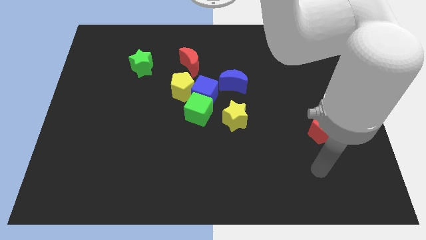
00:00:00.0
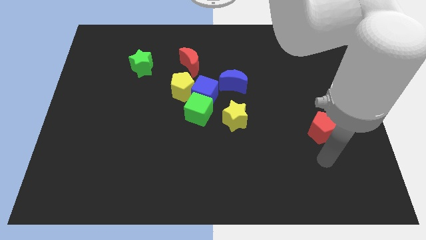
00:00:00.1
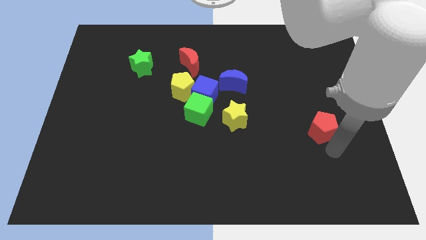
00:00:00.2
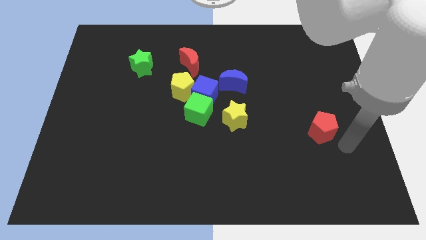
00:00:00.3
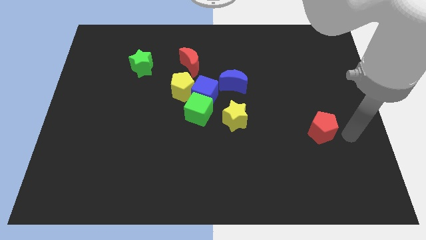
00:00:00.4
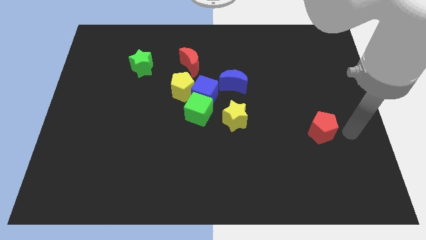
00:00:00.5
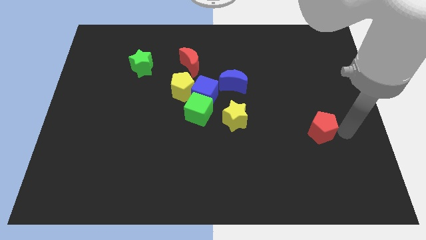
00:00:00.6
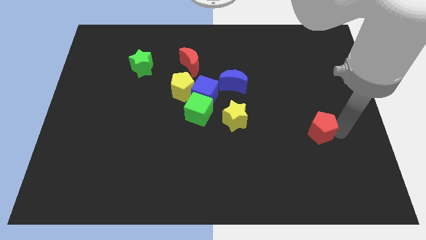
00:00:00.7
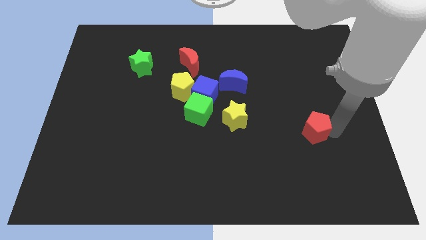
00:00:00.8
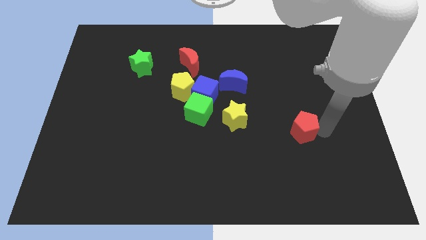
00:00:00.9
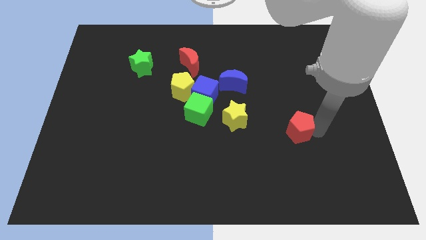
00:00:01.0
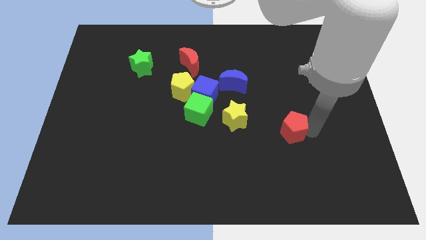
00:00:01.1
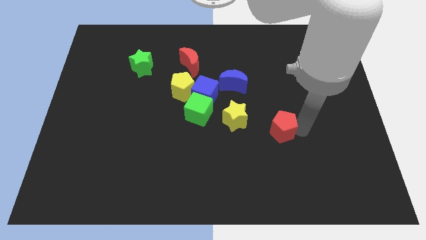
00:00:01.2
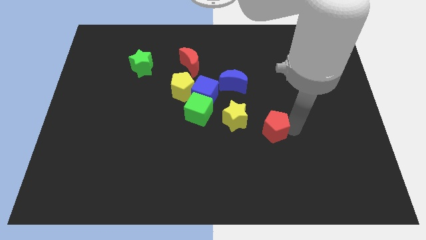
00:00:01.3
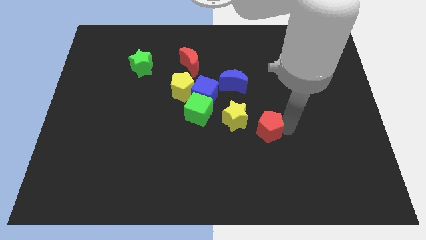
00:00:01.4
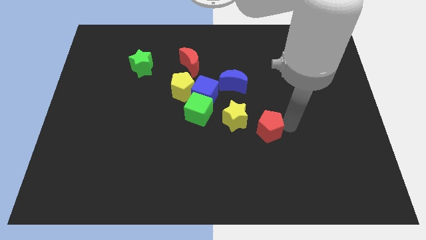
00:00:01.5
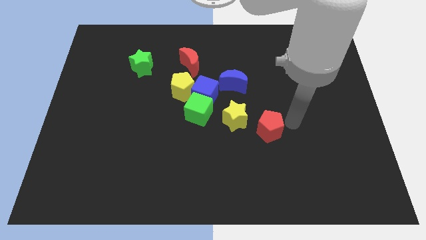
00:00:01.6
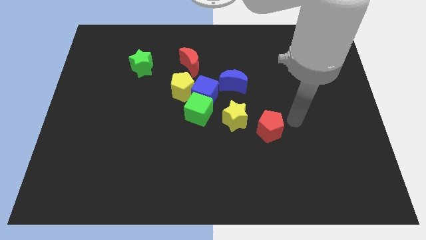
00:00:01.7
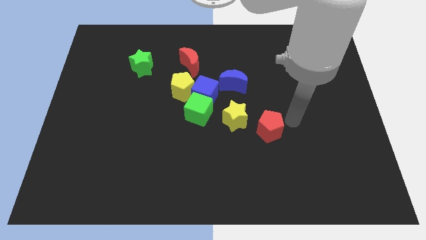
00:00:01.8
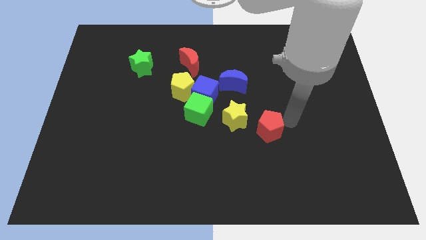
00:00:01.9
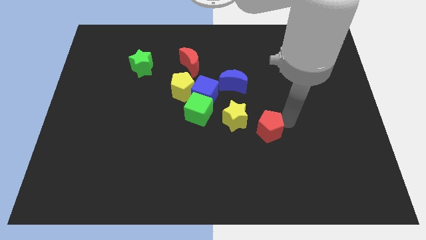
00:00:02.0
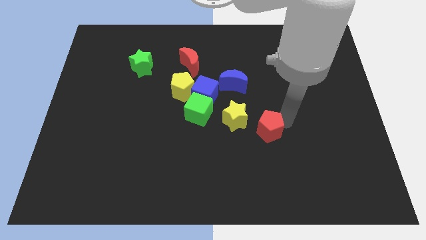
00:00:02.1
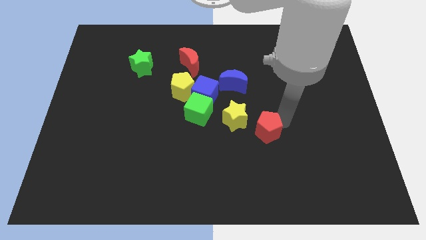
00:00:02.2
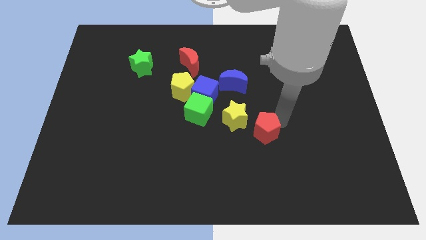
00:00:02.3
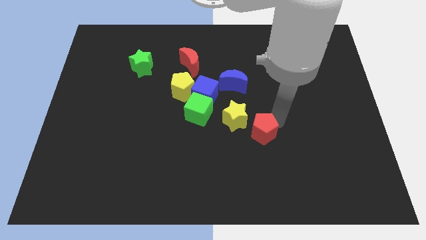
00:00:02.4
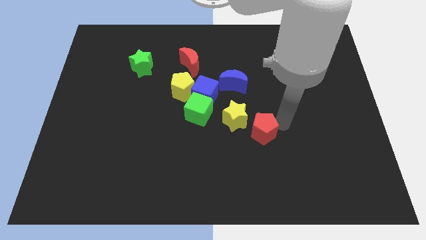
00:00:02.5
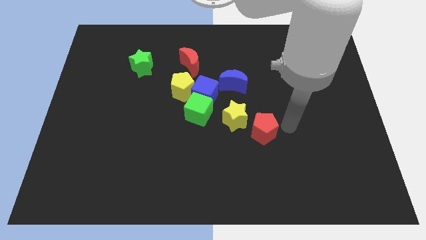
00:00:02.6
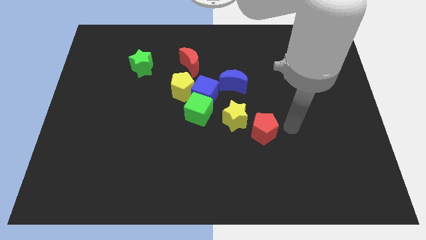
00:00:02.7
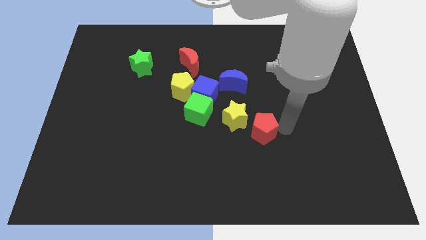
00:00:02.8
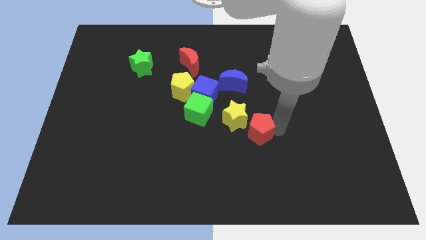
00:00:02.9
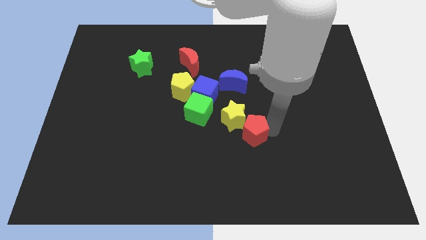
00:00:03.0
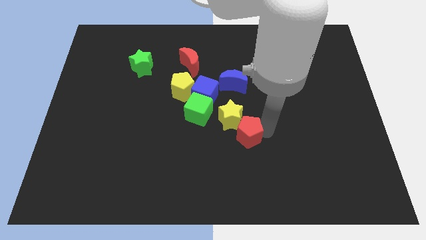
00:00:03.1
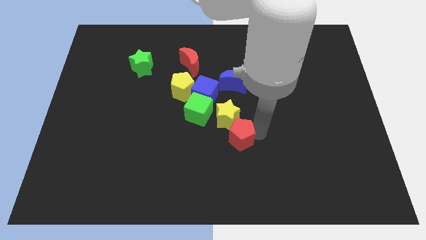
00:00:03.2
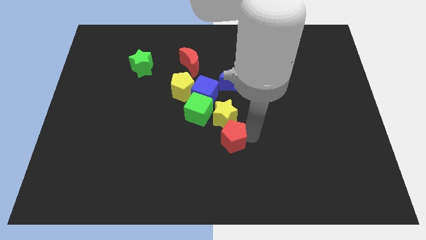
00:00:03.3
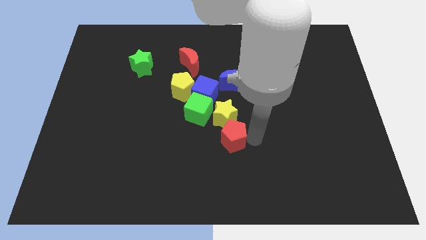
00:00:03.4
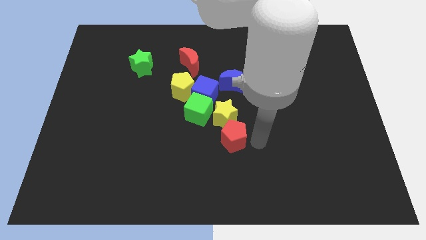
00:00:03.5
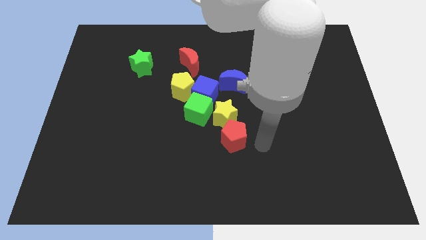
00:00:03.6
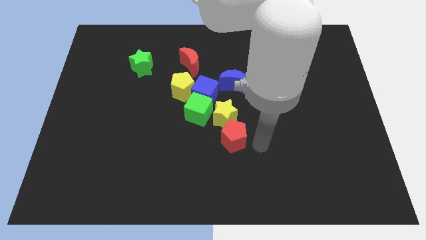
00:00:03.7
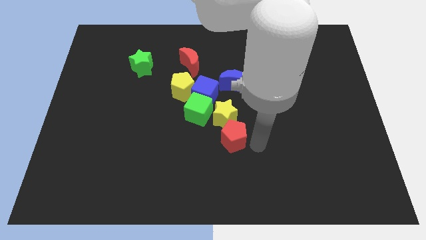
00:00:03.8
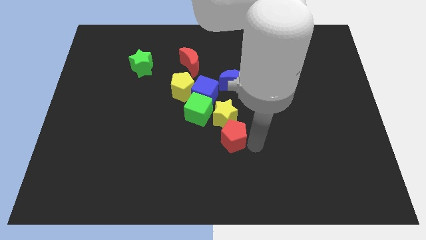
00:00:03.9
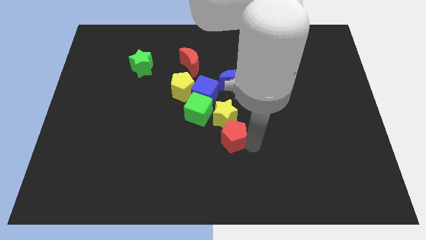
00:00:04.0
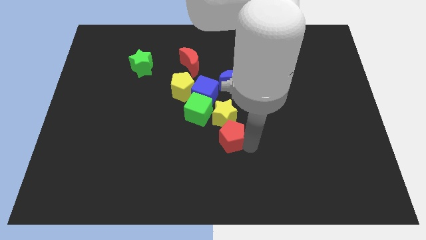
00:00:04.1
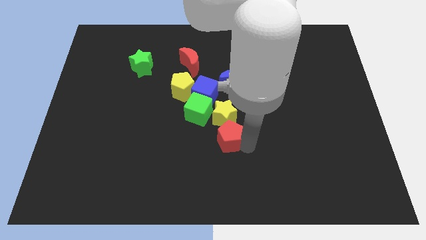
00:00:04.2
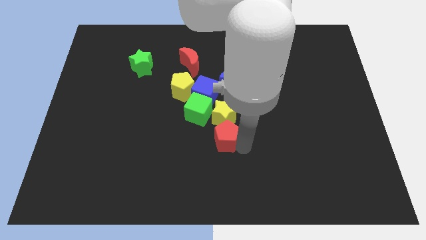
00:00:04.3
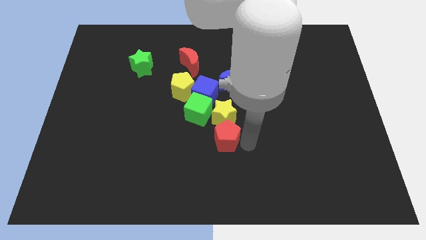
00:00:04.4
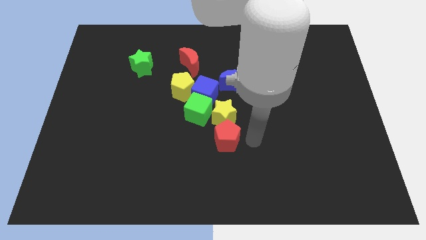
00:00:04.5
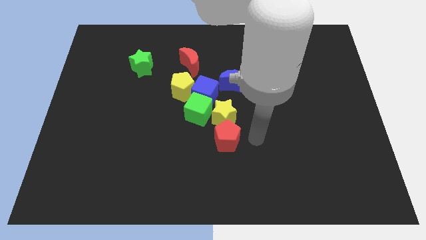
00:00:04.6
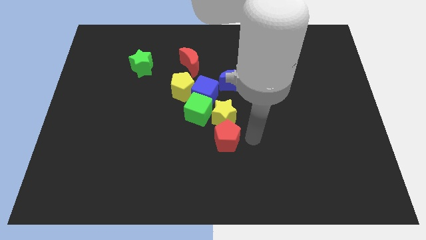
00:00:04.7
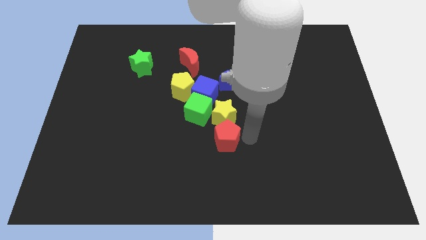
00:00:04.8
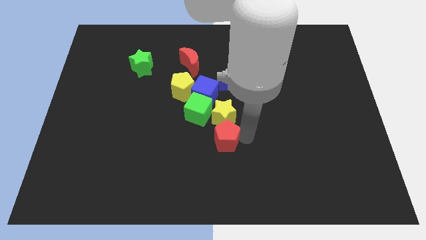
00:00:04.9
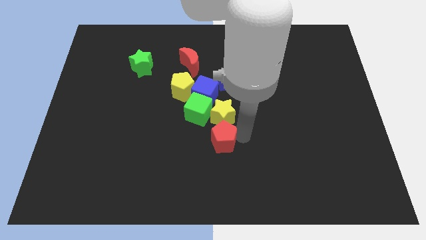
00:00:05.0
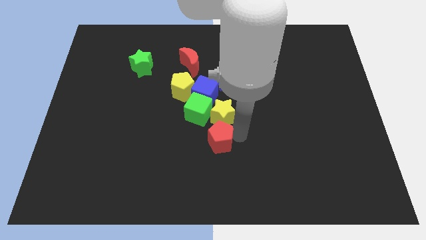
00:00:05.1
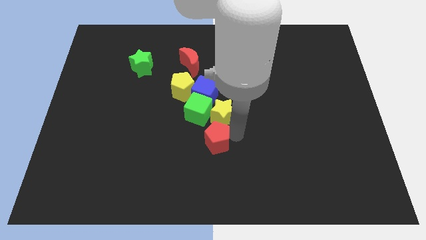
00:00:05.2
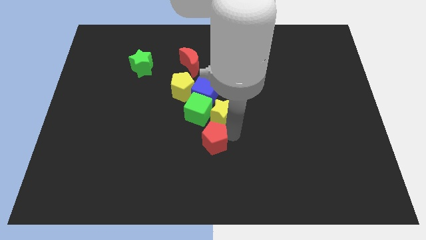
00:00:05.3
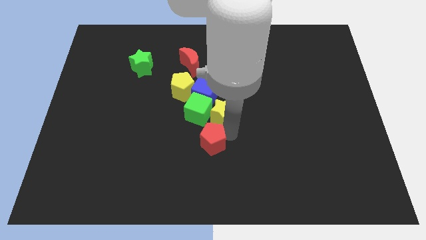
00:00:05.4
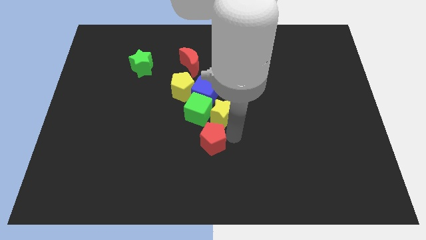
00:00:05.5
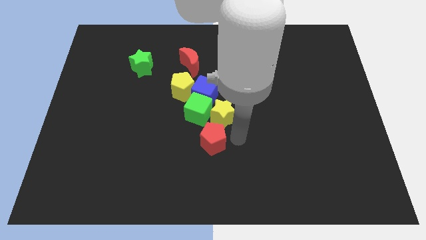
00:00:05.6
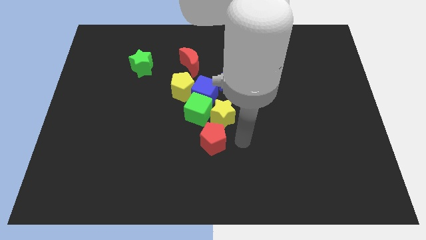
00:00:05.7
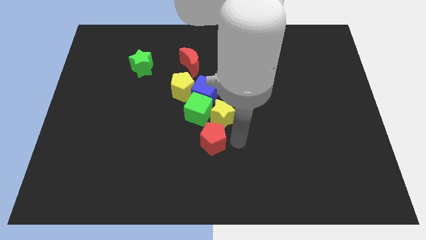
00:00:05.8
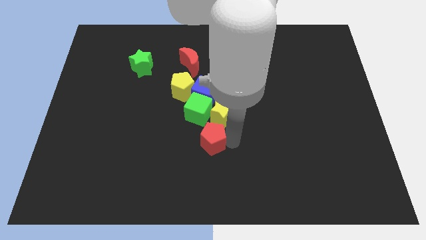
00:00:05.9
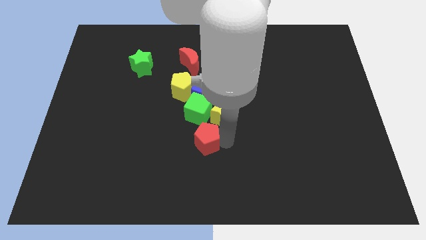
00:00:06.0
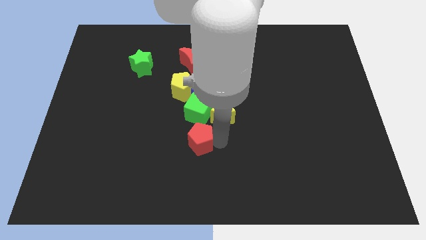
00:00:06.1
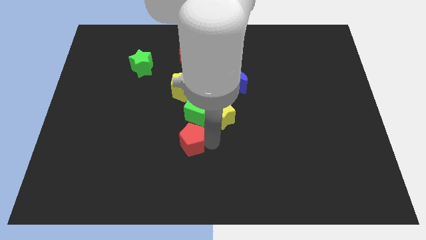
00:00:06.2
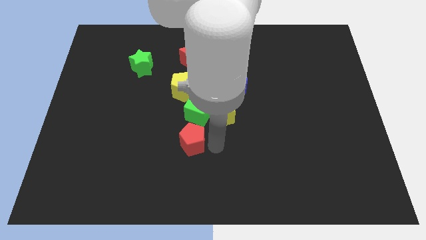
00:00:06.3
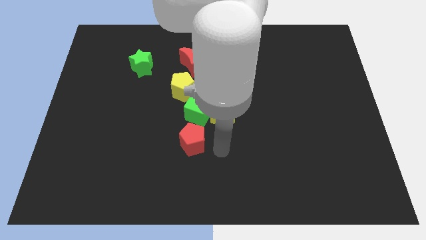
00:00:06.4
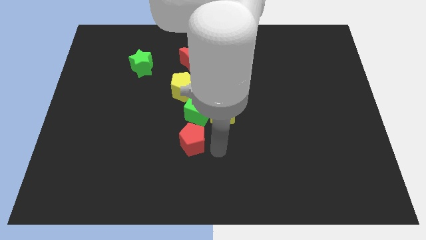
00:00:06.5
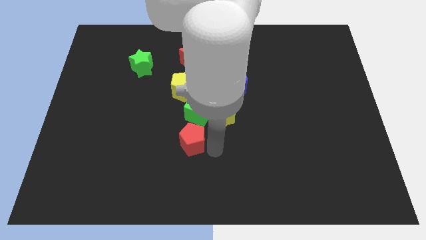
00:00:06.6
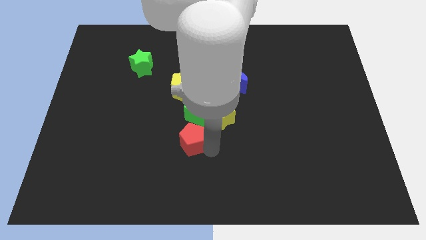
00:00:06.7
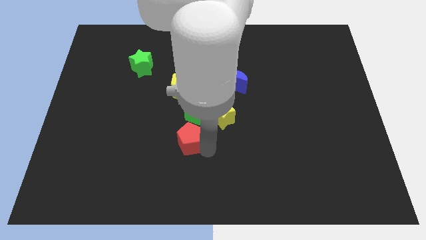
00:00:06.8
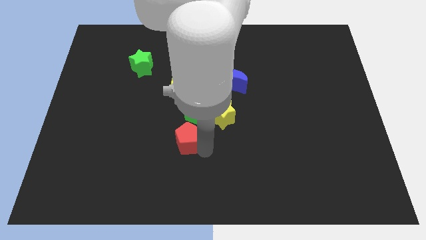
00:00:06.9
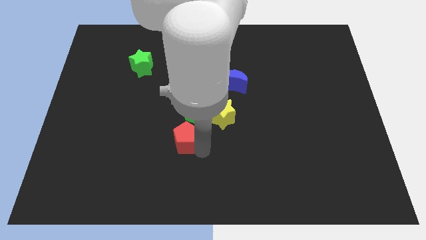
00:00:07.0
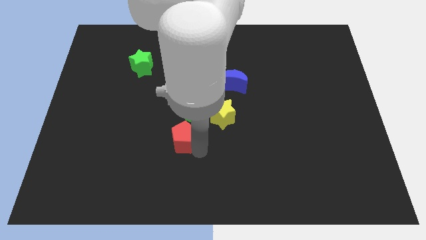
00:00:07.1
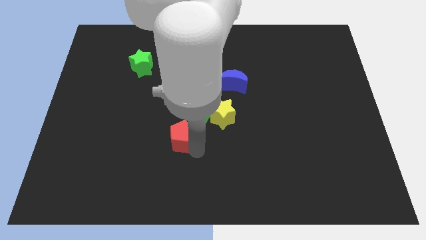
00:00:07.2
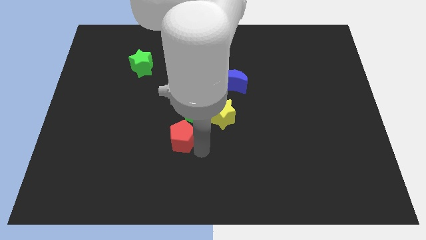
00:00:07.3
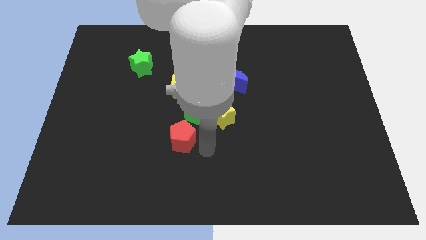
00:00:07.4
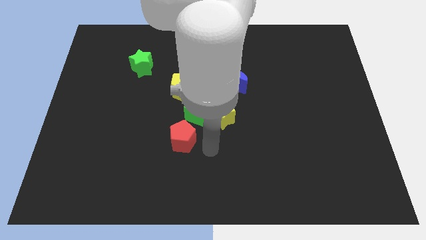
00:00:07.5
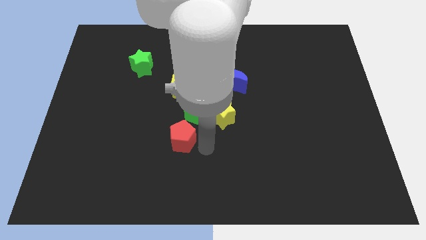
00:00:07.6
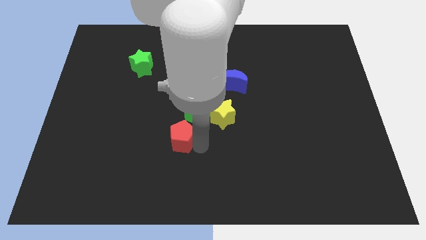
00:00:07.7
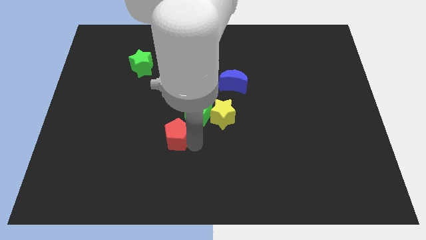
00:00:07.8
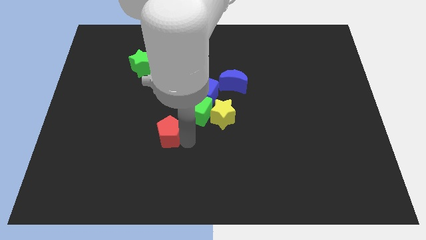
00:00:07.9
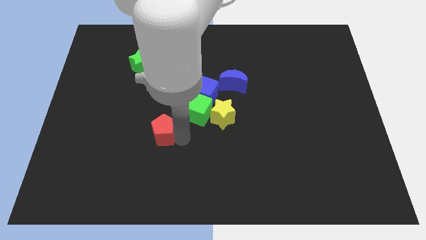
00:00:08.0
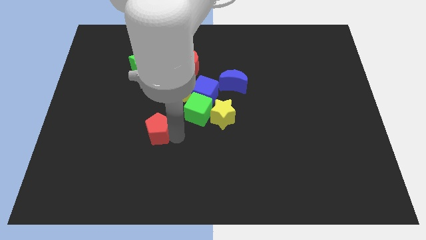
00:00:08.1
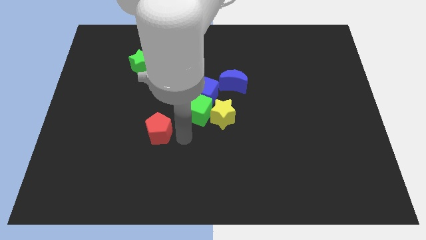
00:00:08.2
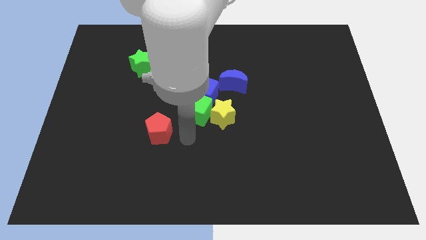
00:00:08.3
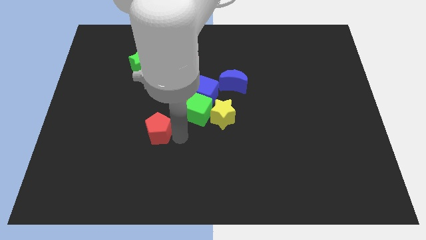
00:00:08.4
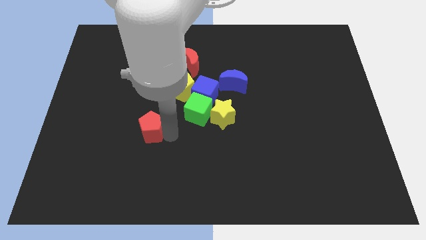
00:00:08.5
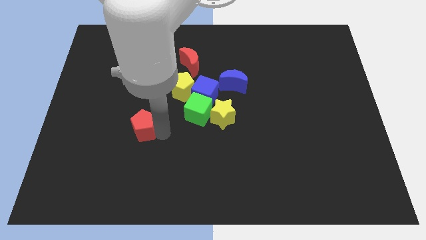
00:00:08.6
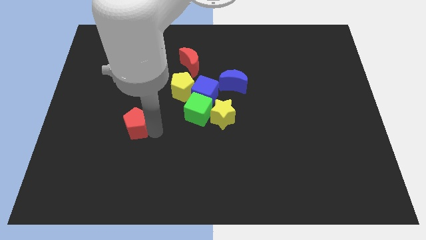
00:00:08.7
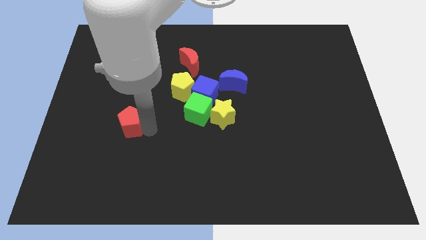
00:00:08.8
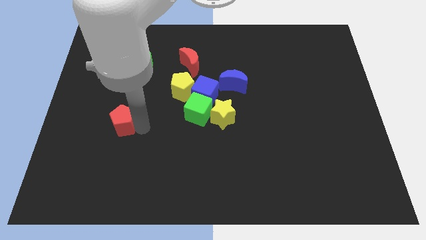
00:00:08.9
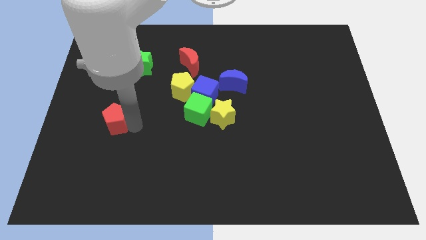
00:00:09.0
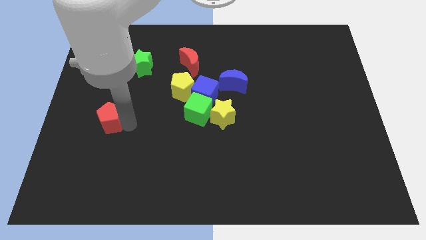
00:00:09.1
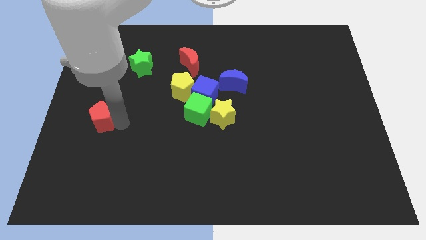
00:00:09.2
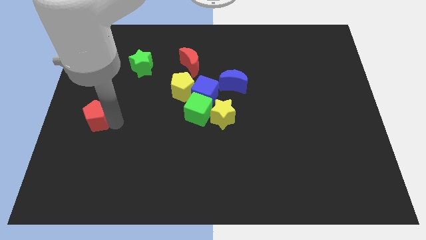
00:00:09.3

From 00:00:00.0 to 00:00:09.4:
put the red pentagon to the left side
